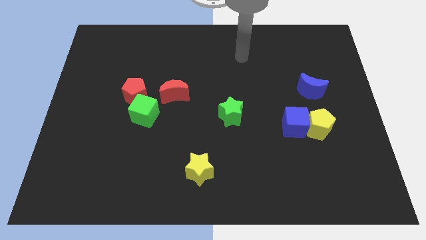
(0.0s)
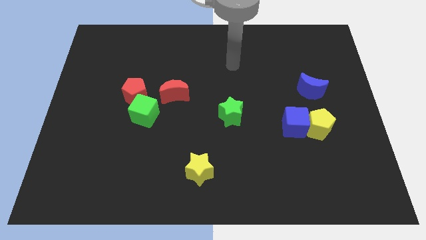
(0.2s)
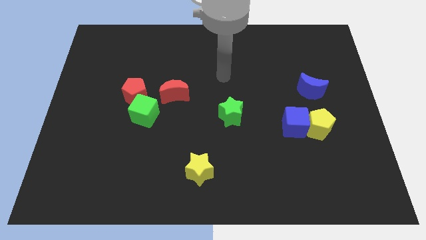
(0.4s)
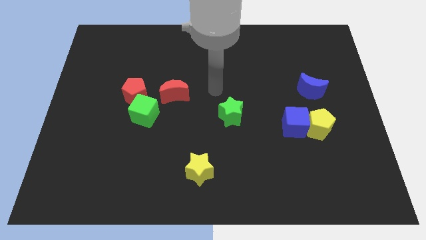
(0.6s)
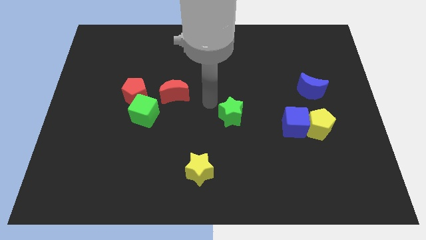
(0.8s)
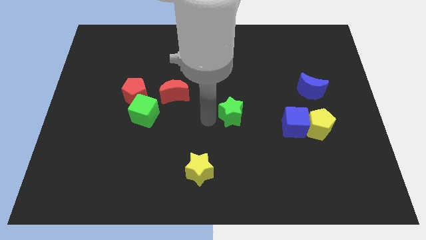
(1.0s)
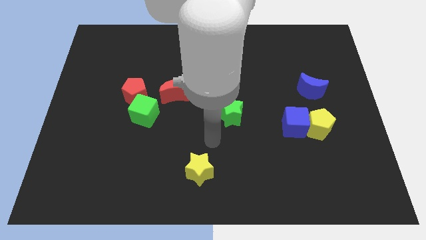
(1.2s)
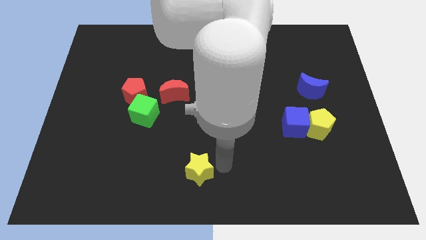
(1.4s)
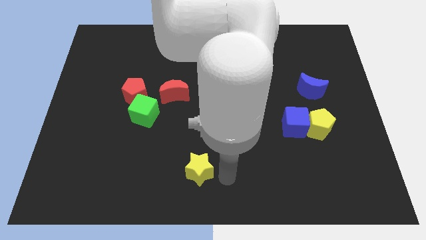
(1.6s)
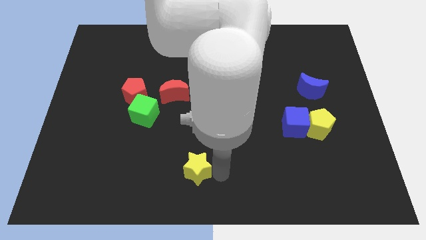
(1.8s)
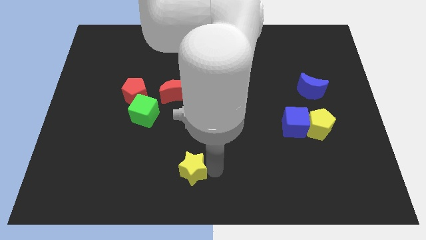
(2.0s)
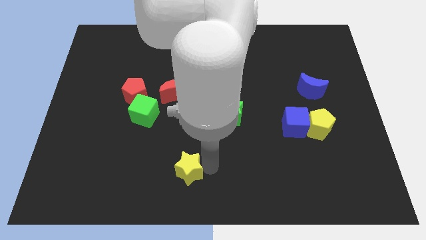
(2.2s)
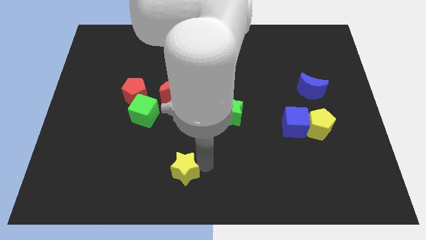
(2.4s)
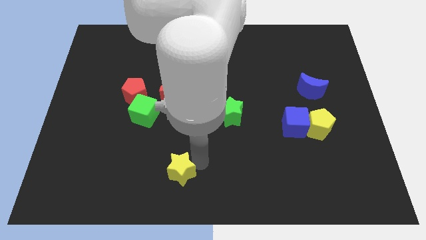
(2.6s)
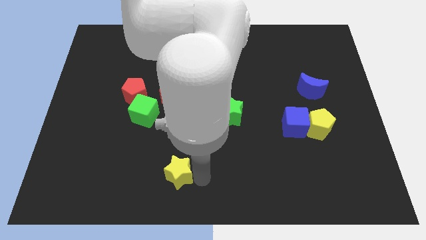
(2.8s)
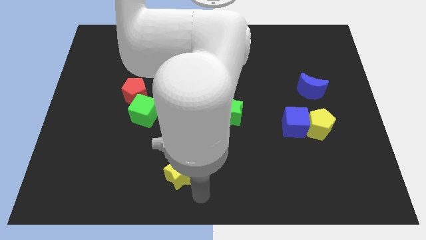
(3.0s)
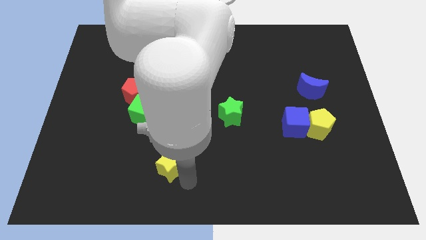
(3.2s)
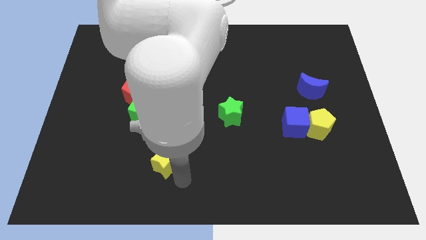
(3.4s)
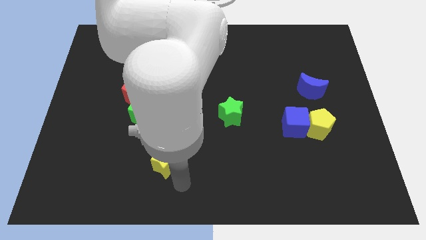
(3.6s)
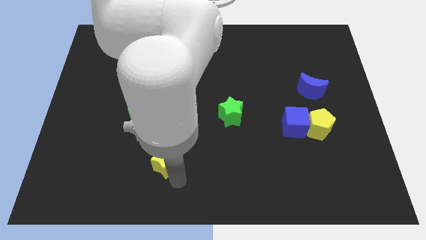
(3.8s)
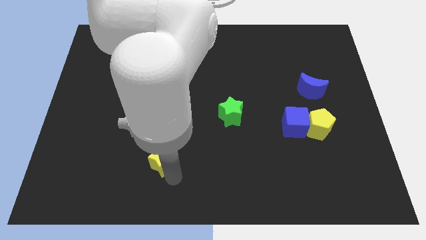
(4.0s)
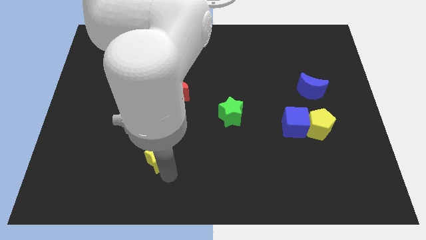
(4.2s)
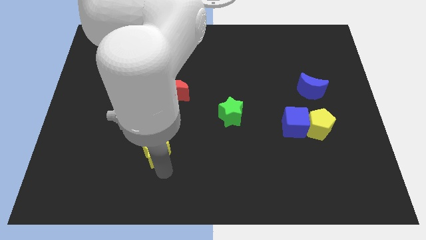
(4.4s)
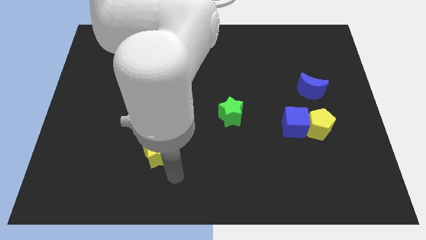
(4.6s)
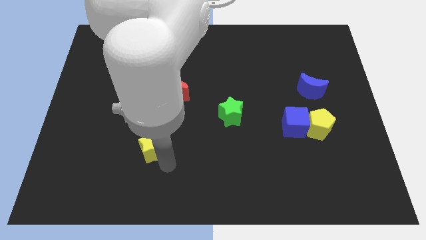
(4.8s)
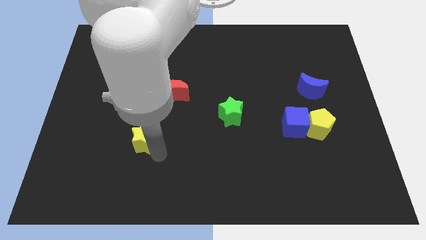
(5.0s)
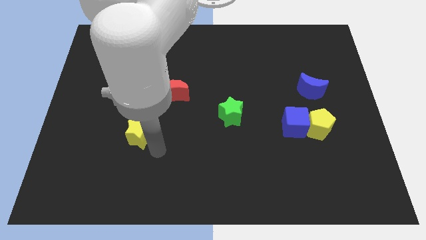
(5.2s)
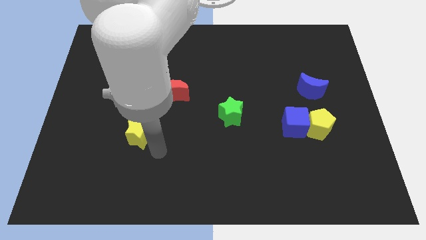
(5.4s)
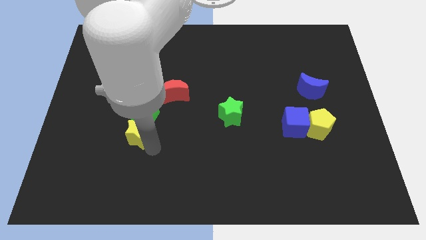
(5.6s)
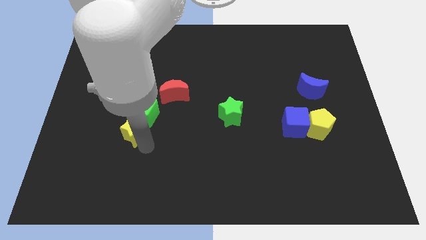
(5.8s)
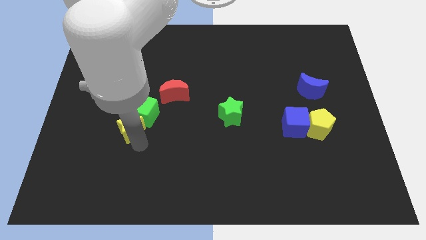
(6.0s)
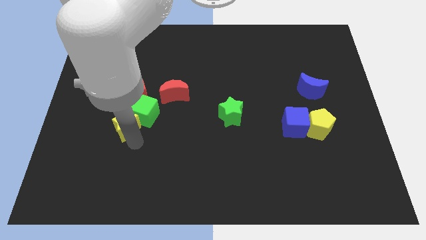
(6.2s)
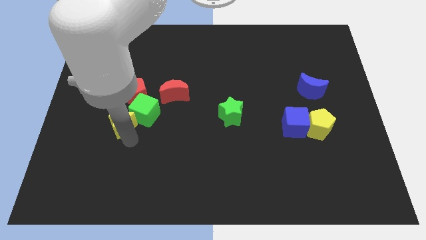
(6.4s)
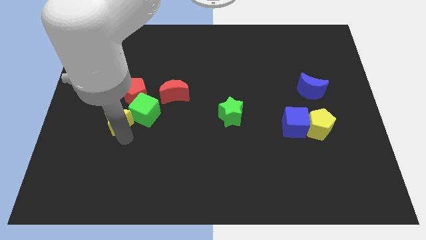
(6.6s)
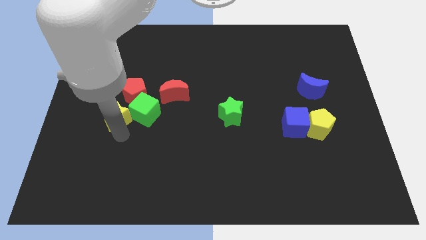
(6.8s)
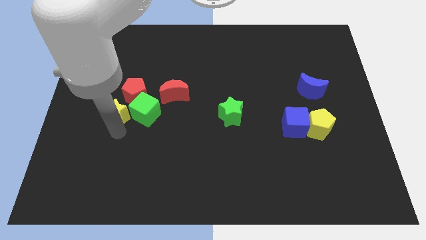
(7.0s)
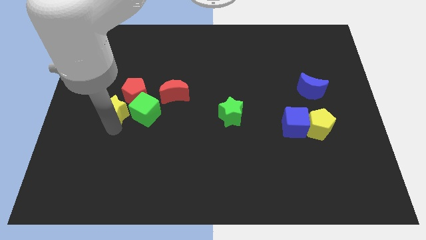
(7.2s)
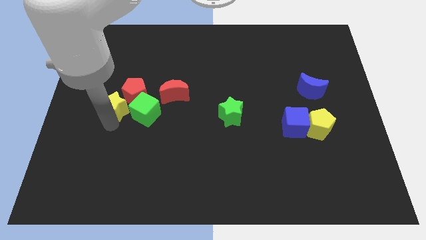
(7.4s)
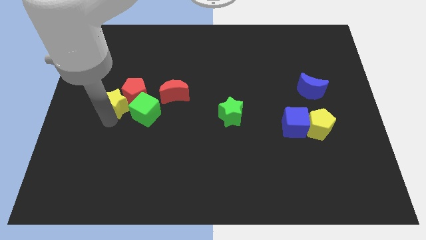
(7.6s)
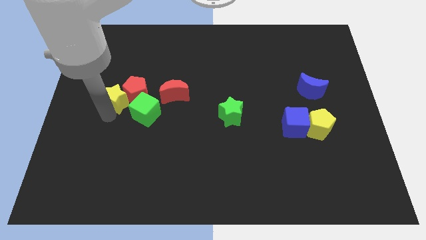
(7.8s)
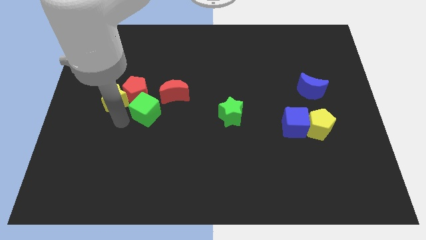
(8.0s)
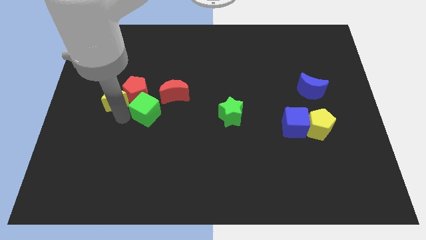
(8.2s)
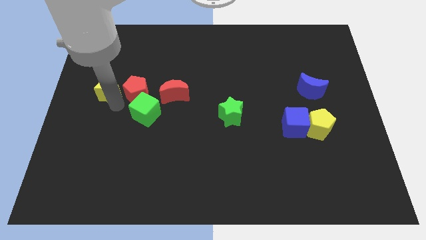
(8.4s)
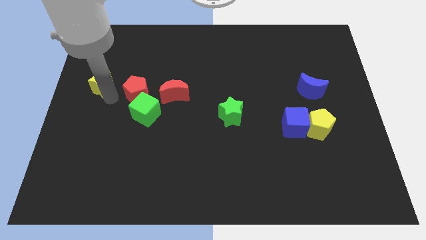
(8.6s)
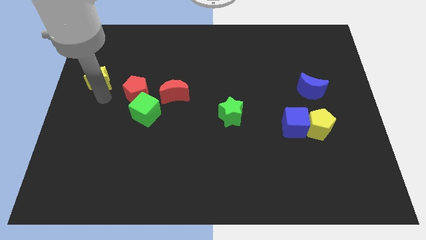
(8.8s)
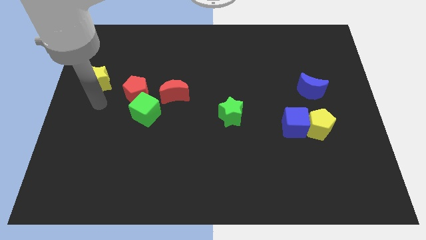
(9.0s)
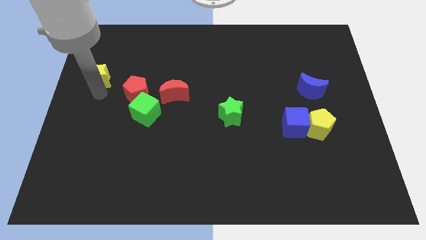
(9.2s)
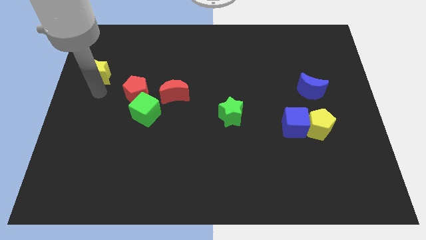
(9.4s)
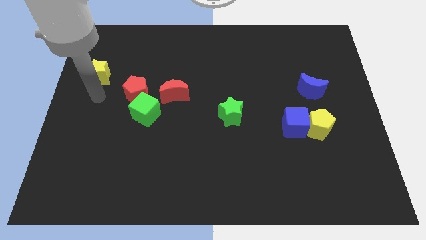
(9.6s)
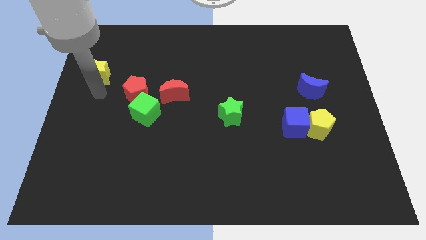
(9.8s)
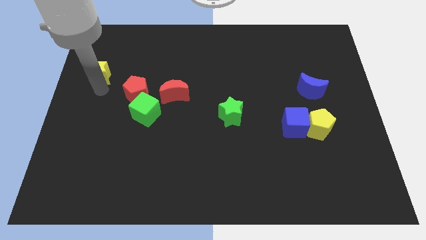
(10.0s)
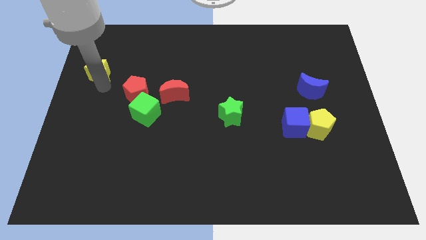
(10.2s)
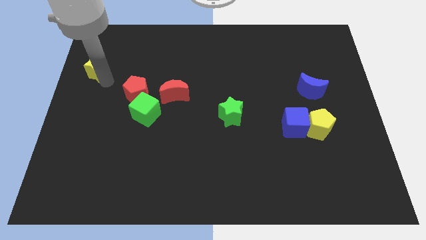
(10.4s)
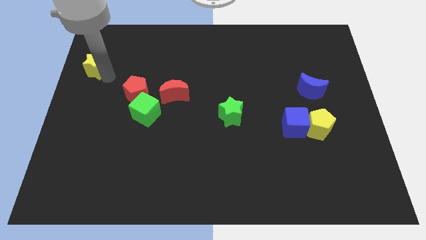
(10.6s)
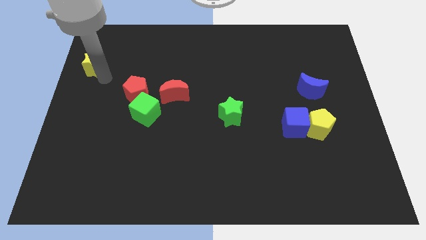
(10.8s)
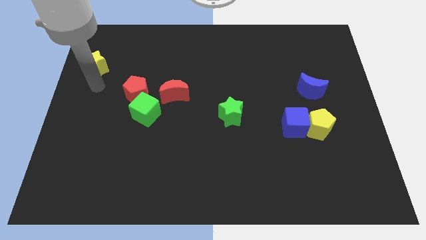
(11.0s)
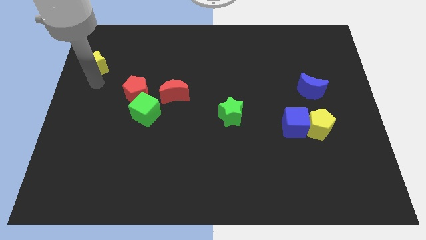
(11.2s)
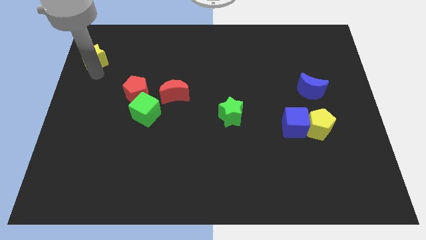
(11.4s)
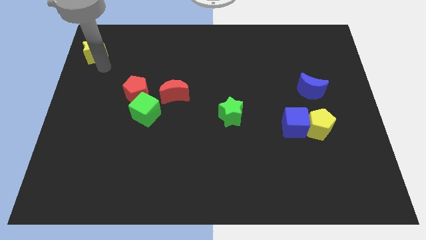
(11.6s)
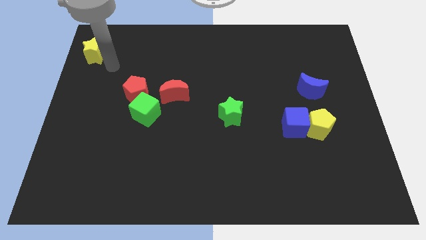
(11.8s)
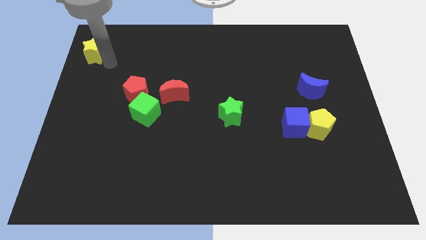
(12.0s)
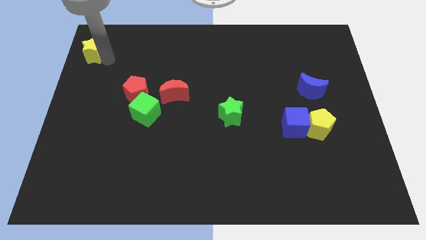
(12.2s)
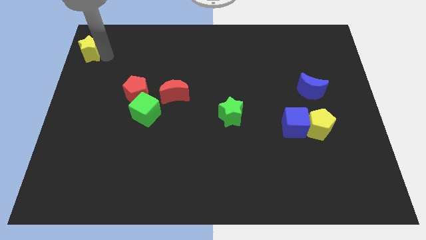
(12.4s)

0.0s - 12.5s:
slide the yellow star to the top left of the board
